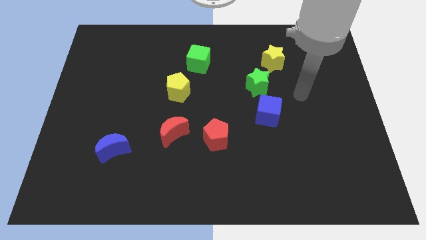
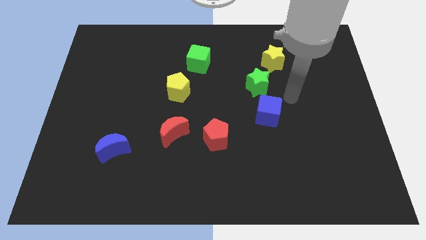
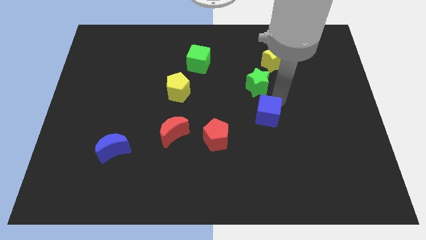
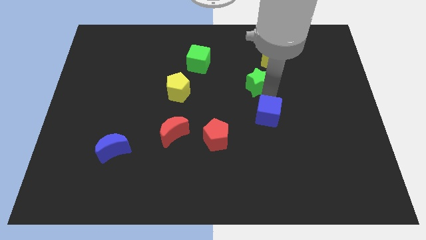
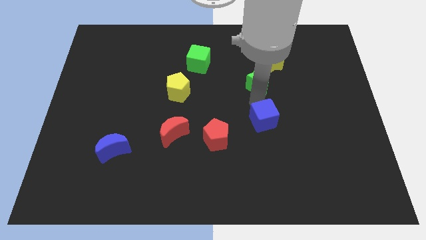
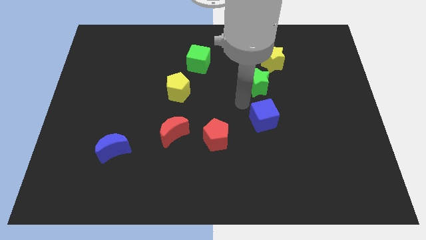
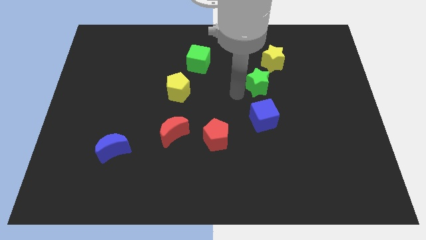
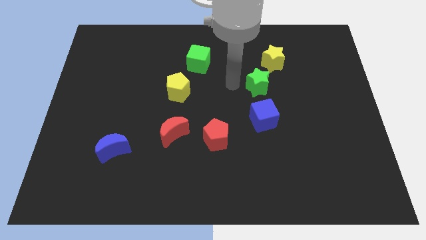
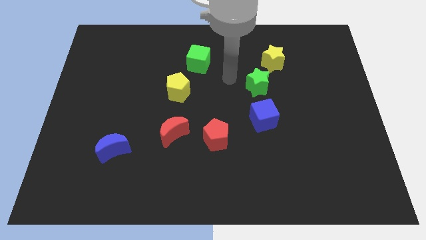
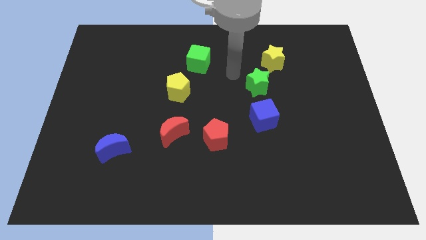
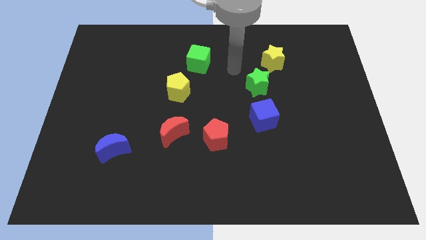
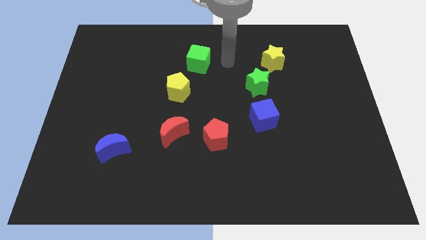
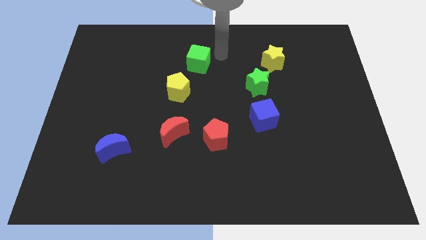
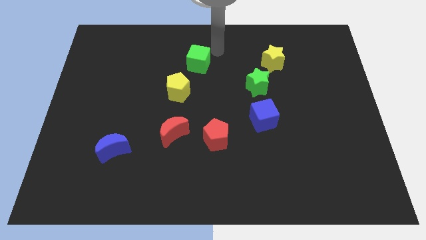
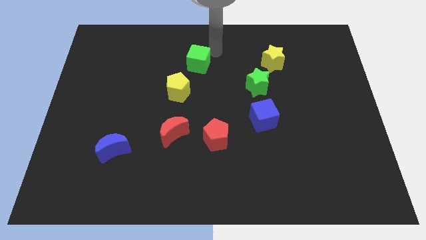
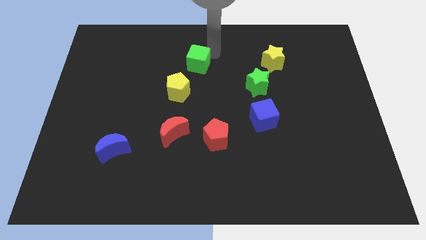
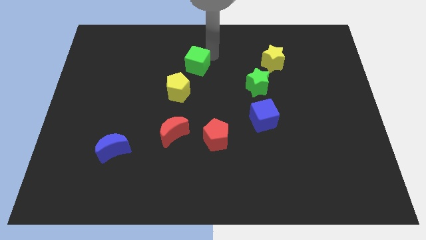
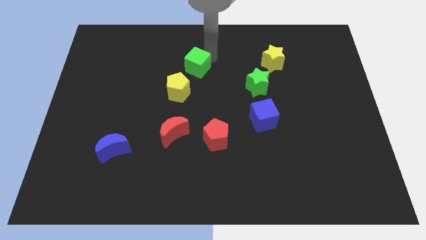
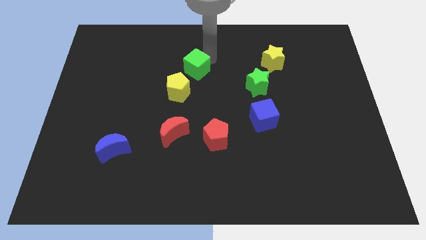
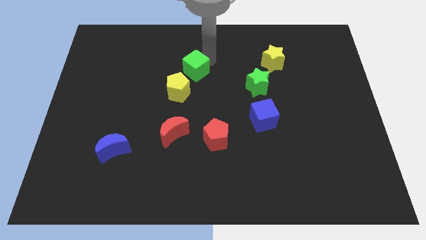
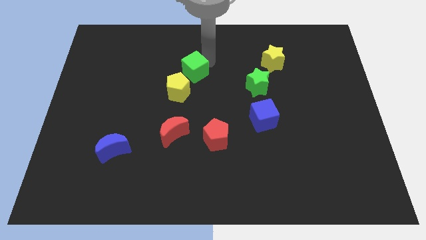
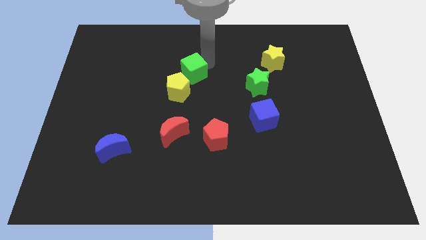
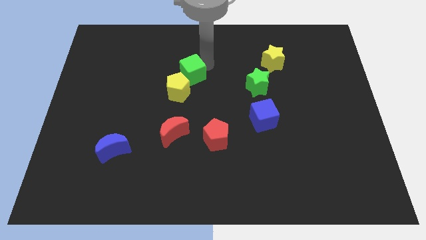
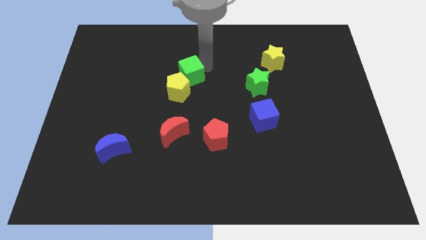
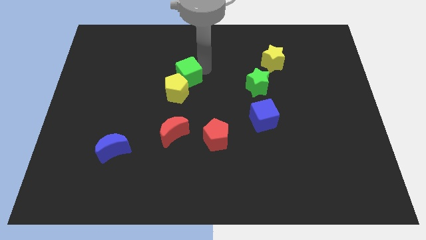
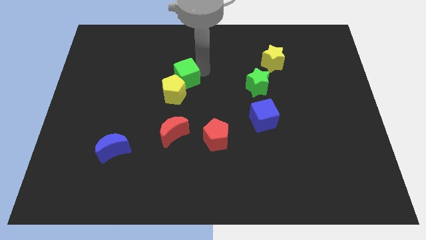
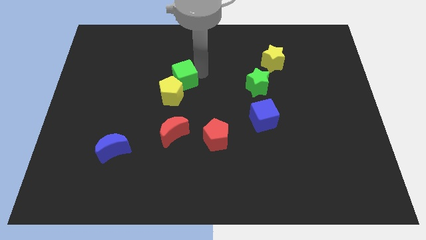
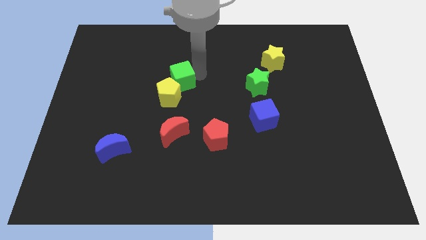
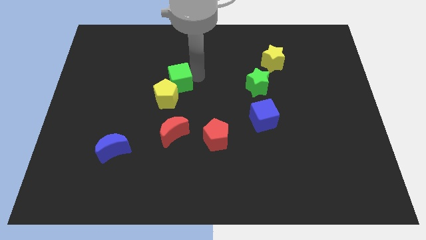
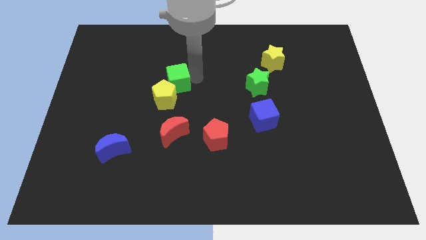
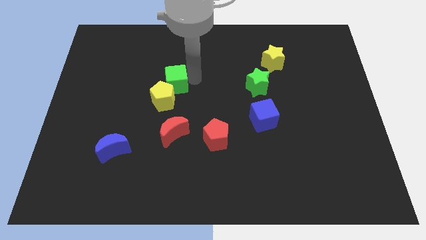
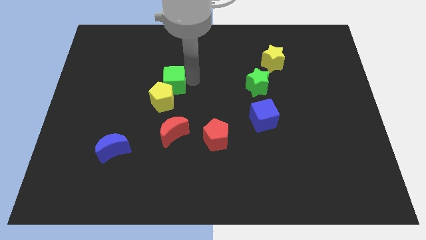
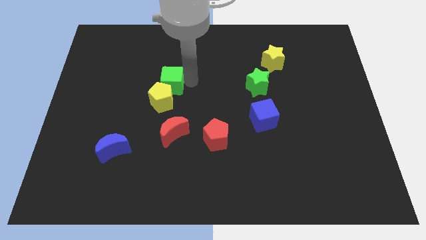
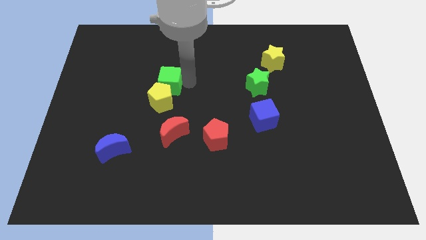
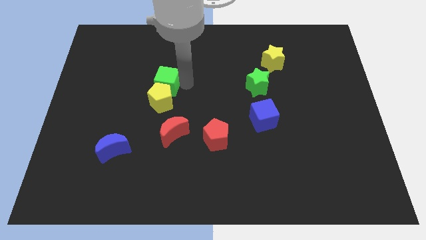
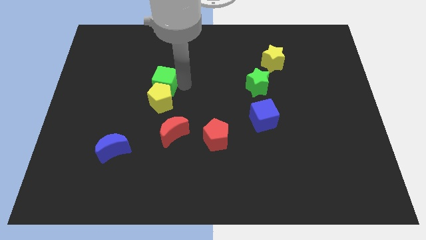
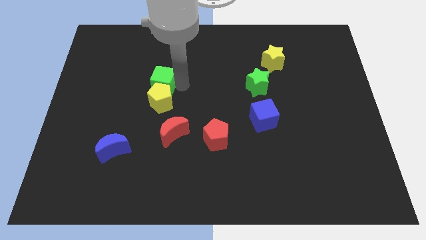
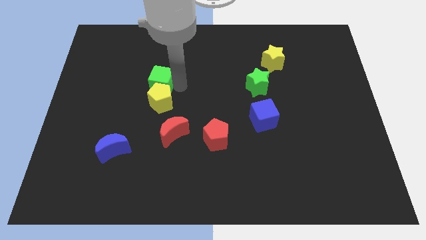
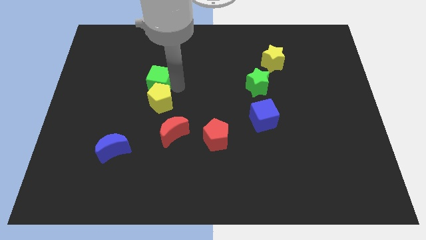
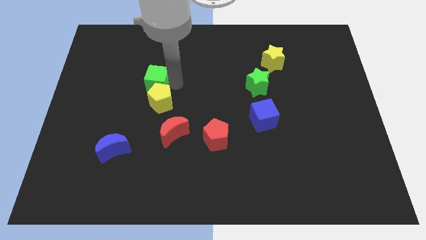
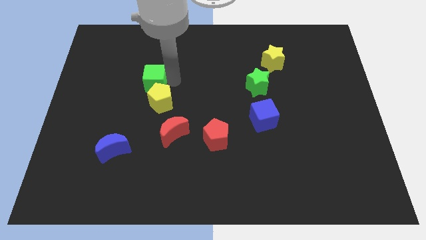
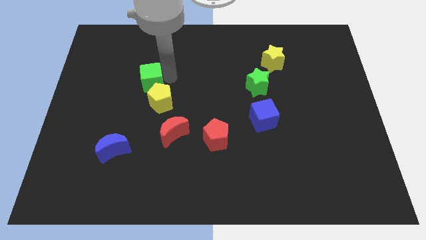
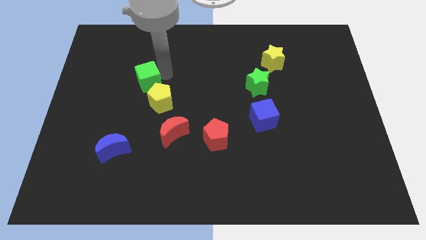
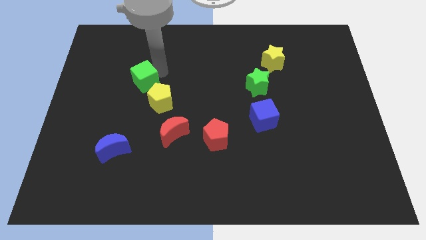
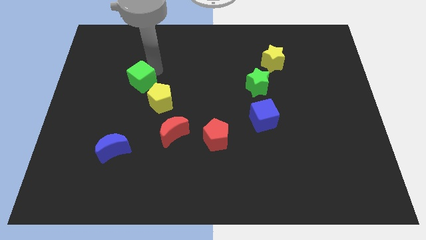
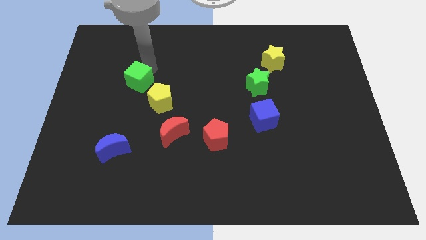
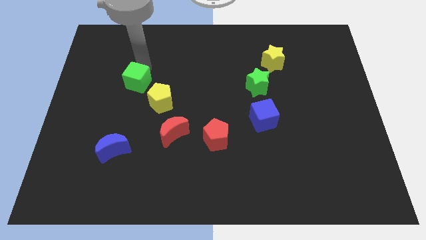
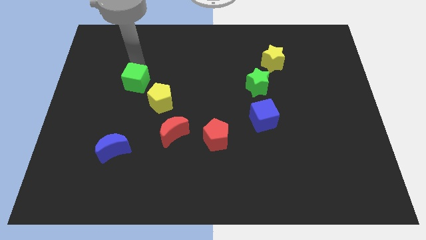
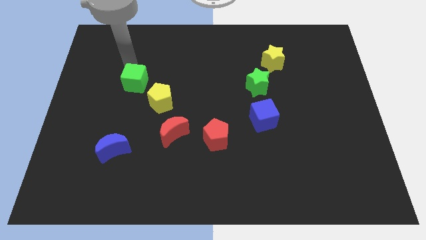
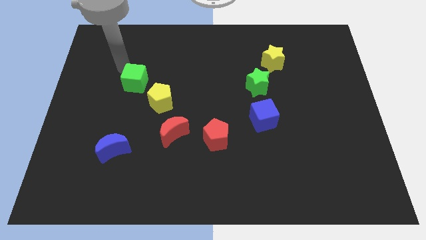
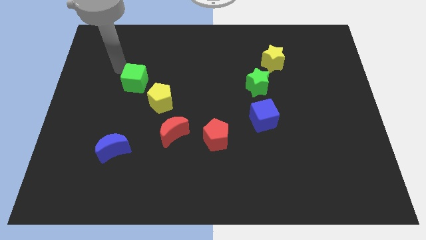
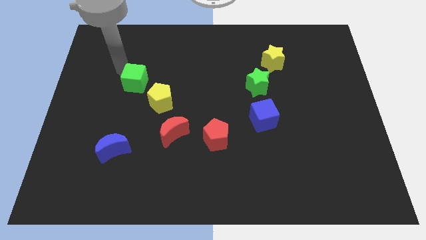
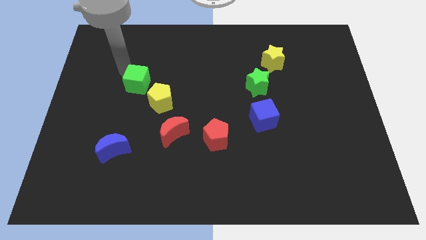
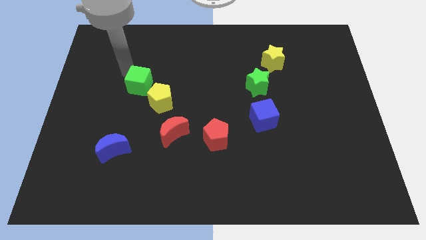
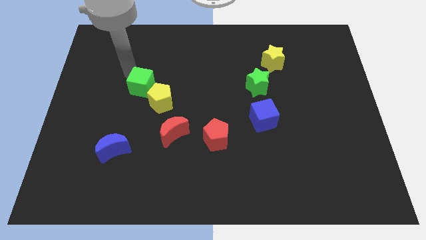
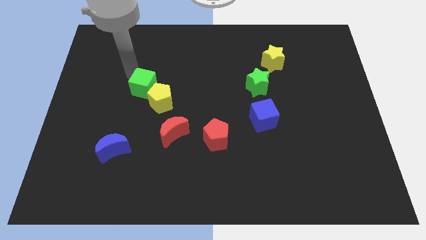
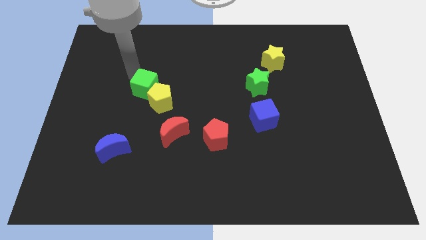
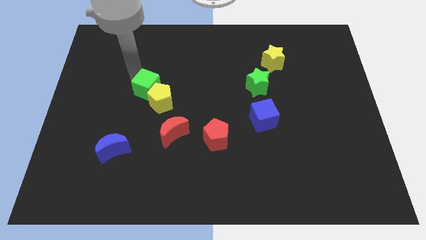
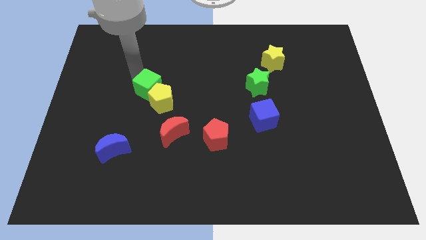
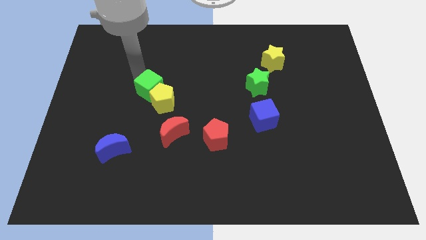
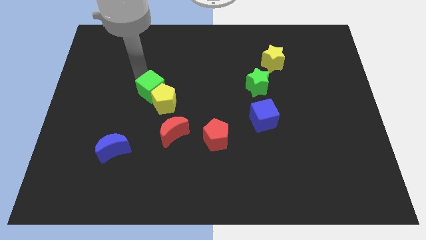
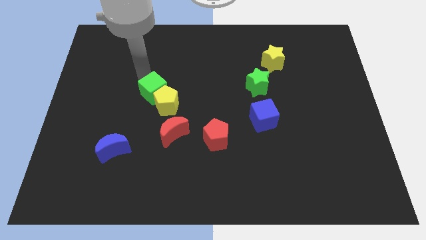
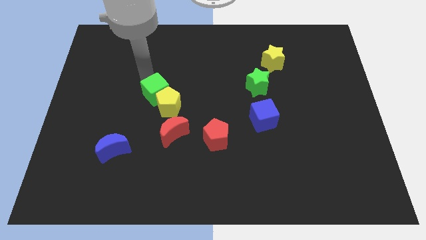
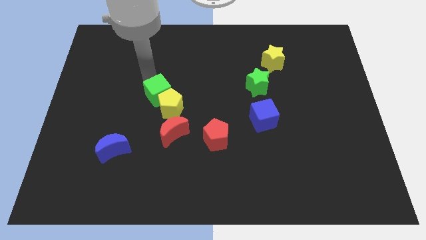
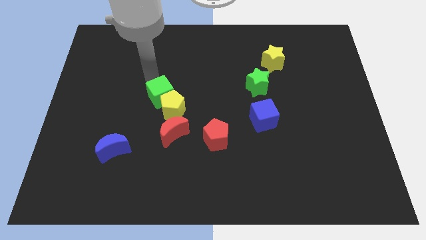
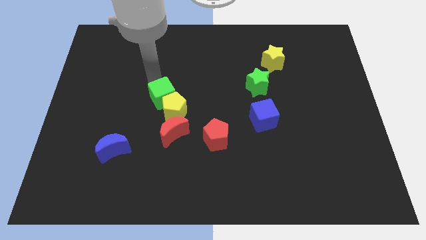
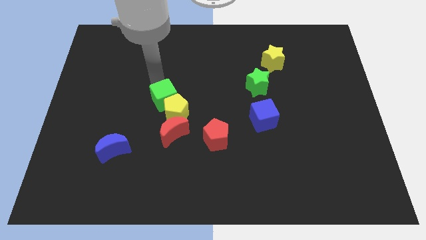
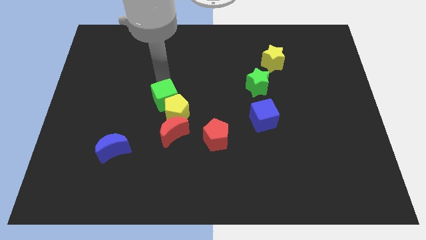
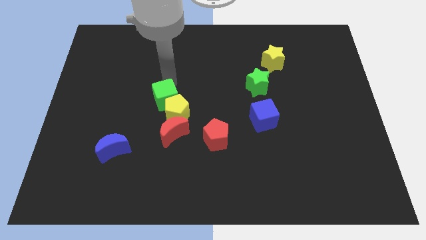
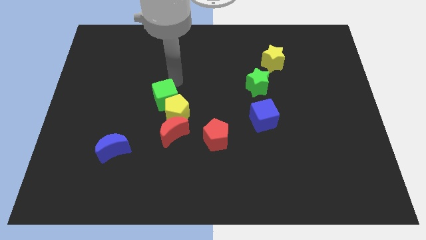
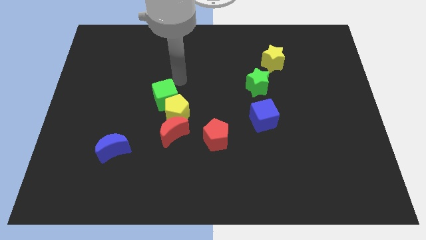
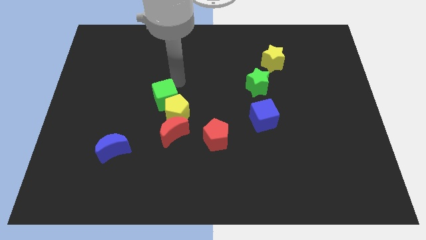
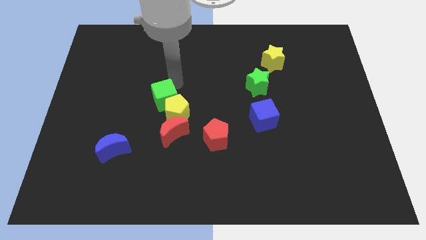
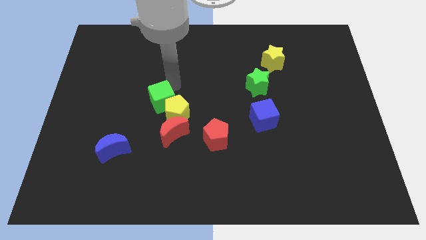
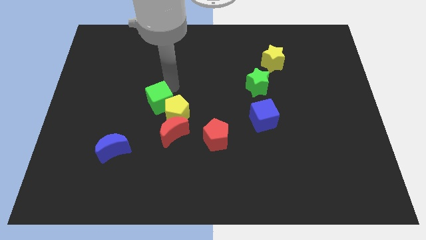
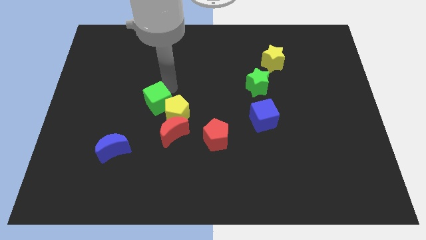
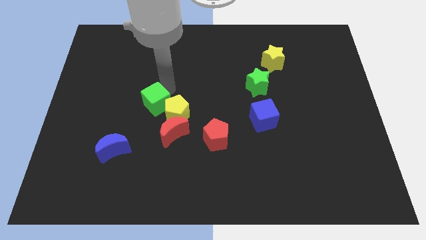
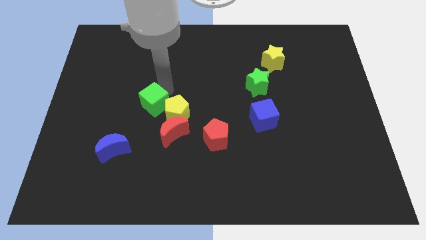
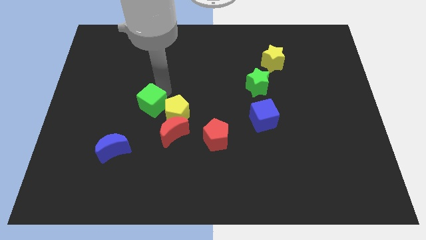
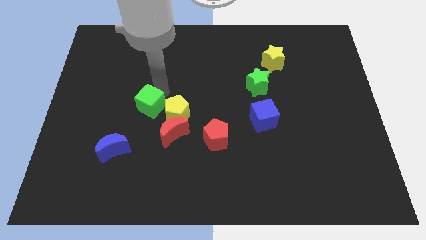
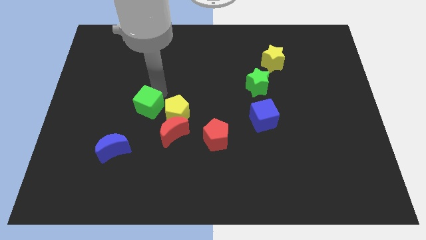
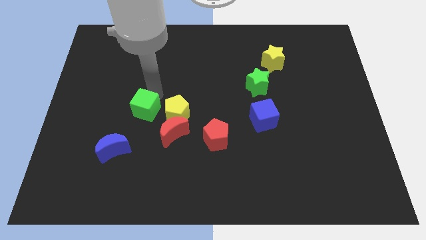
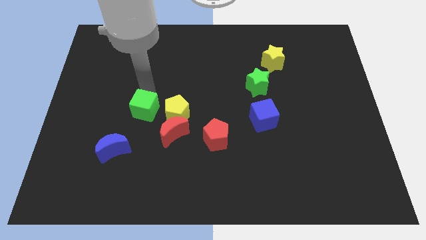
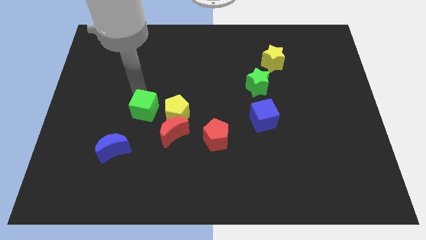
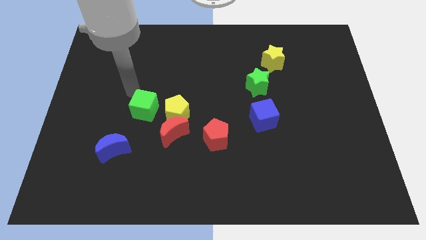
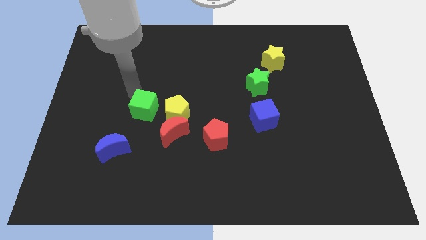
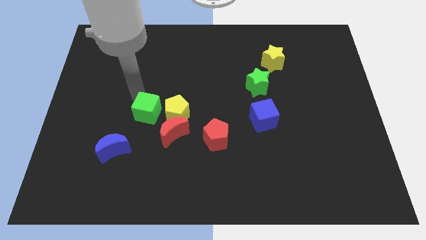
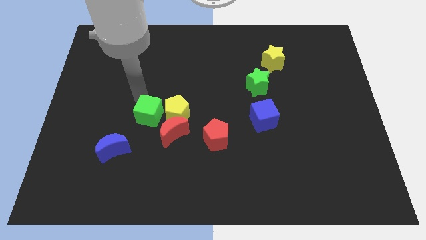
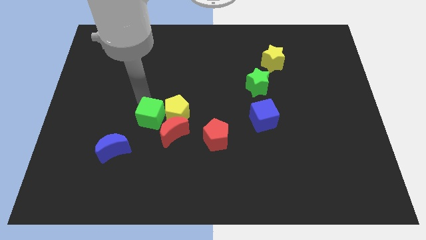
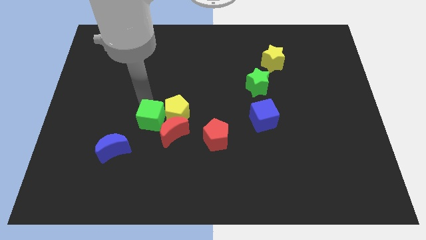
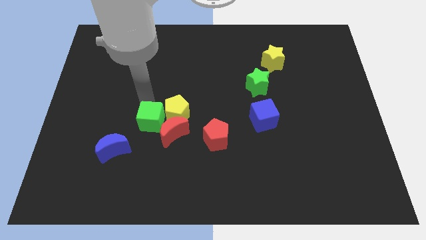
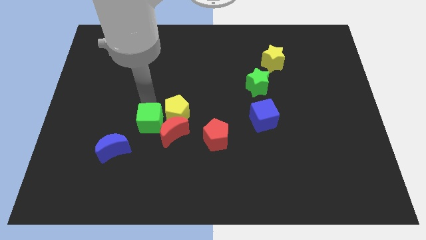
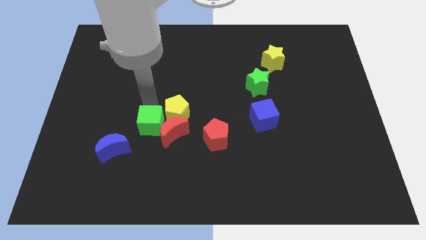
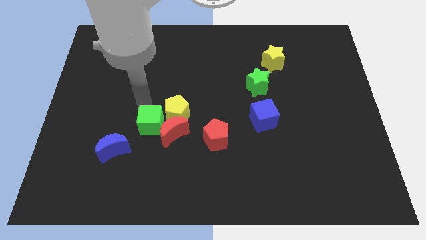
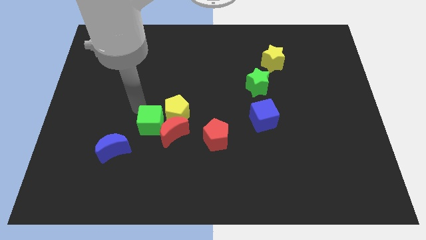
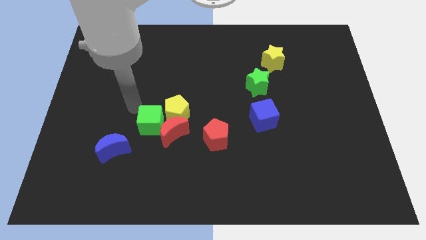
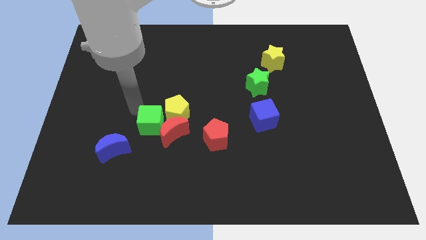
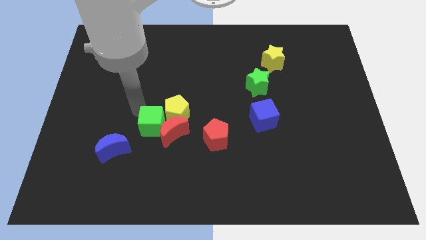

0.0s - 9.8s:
move the green cube to the left side of the red pentagon
